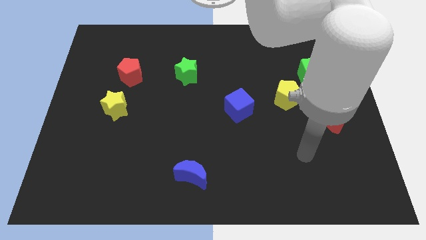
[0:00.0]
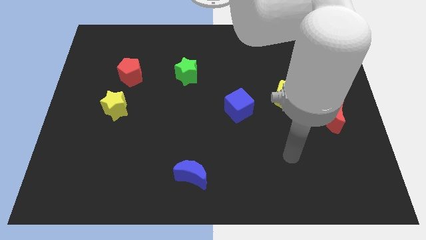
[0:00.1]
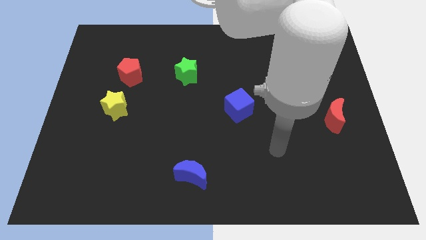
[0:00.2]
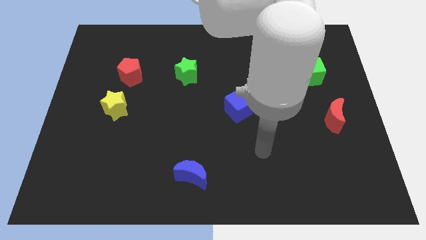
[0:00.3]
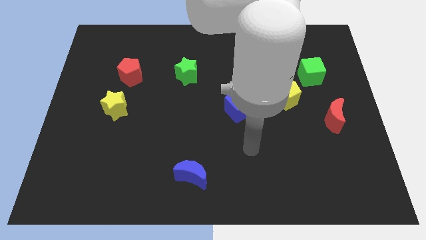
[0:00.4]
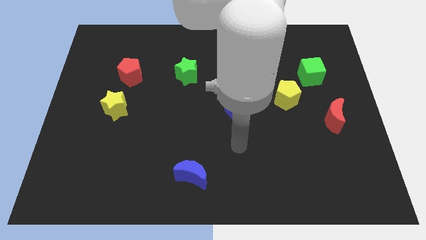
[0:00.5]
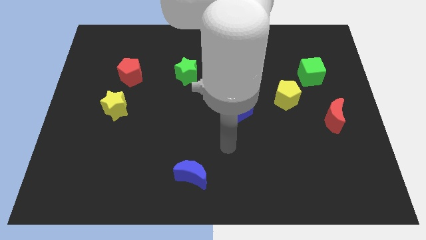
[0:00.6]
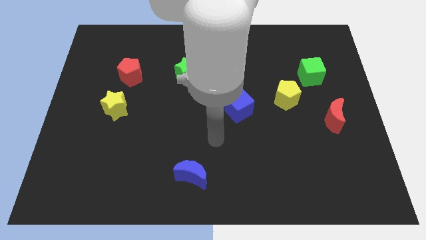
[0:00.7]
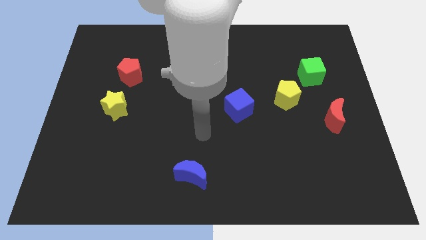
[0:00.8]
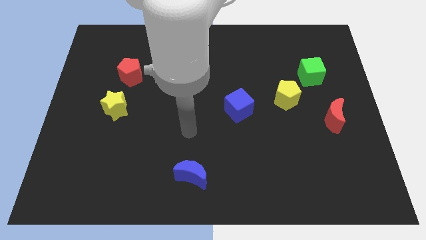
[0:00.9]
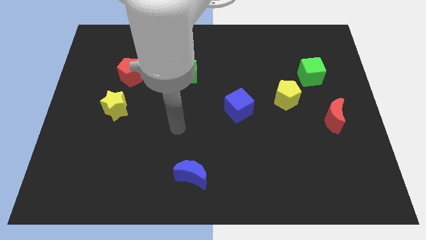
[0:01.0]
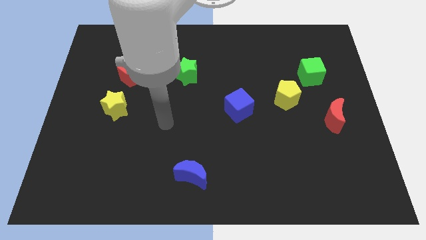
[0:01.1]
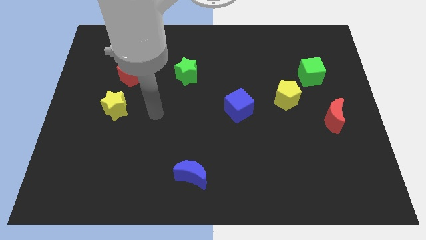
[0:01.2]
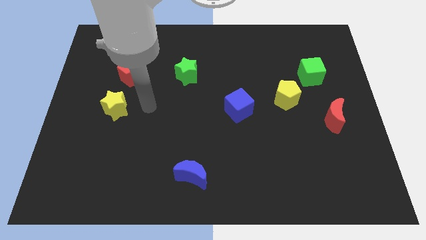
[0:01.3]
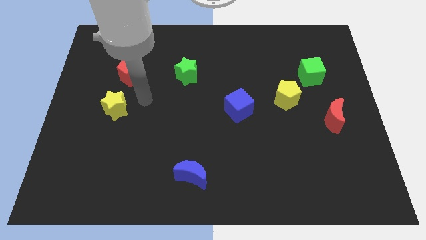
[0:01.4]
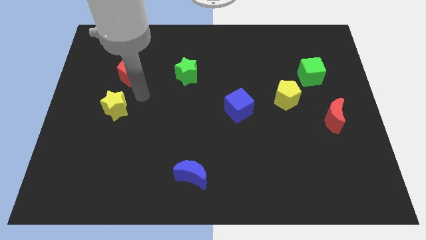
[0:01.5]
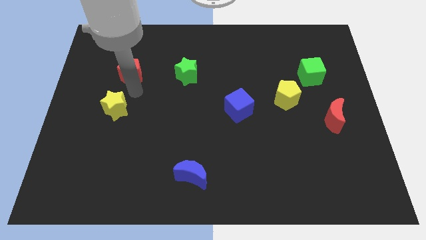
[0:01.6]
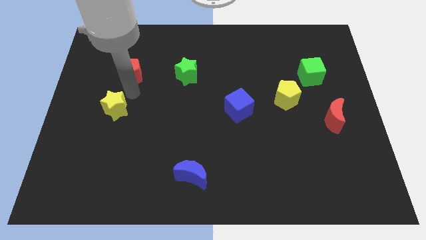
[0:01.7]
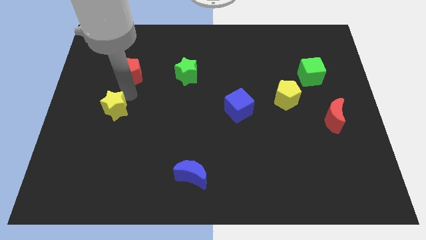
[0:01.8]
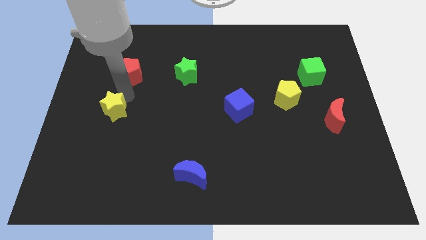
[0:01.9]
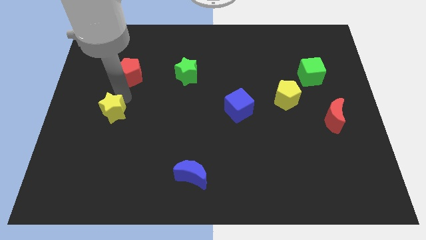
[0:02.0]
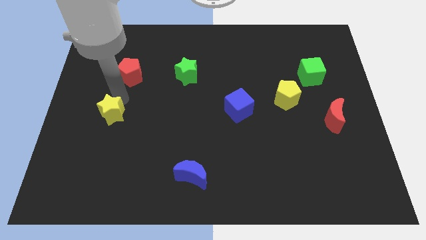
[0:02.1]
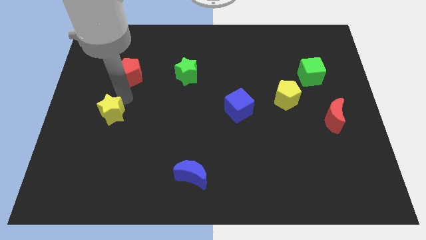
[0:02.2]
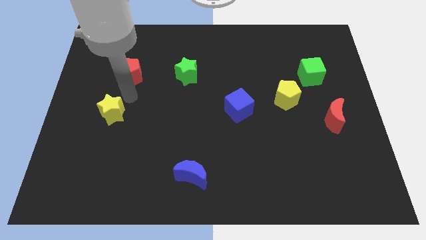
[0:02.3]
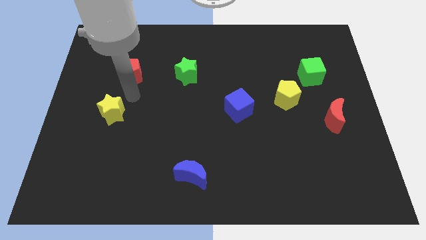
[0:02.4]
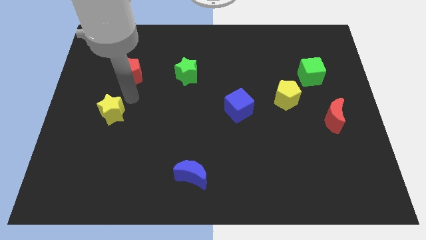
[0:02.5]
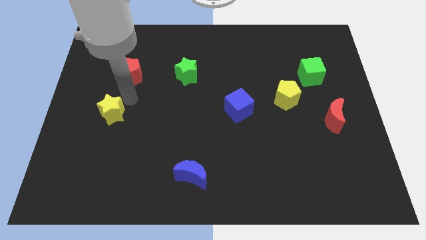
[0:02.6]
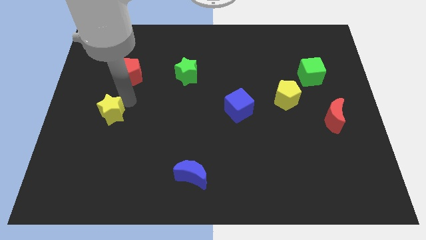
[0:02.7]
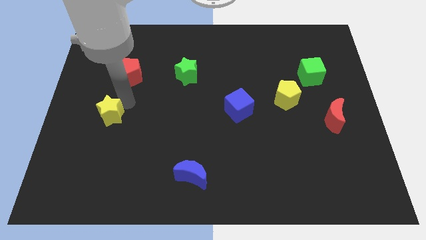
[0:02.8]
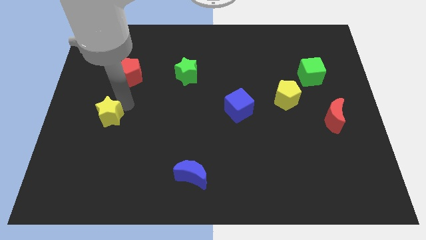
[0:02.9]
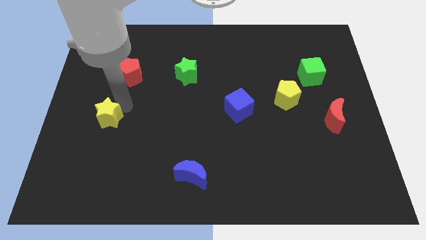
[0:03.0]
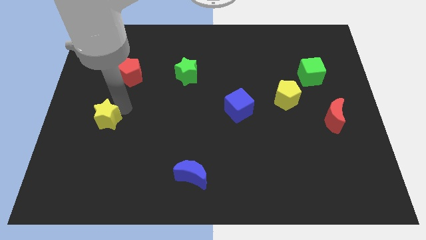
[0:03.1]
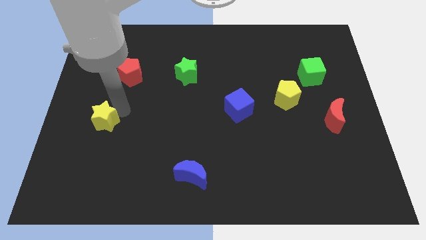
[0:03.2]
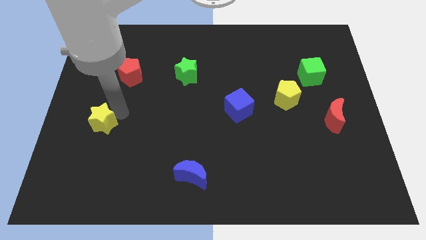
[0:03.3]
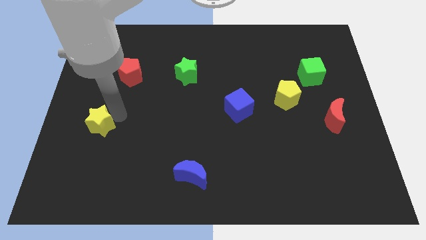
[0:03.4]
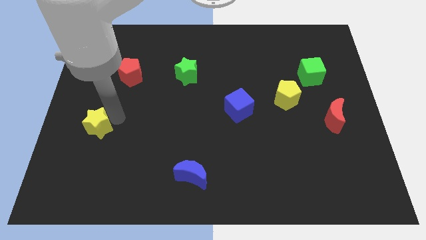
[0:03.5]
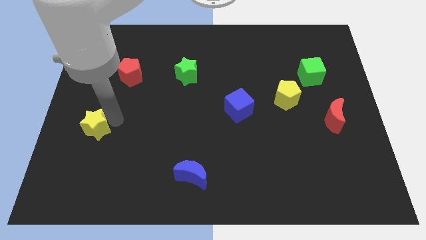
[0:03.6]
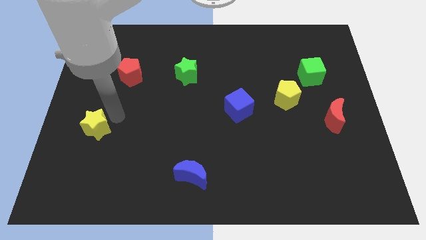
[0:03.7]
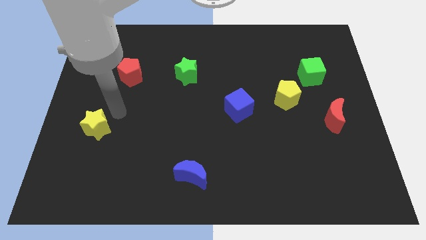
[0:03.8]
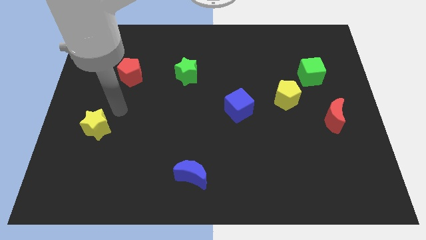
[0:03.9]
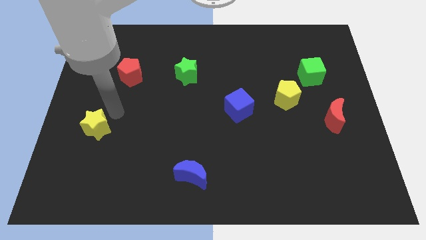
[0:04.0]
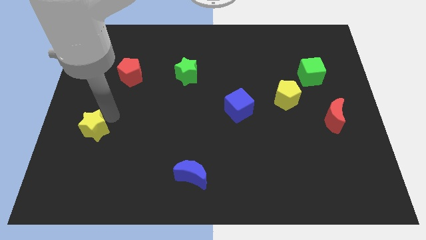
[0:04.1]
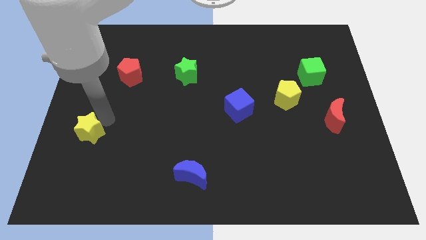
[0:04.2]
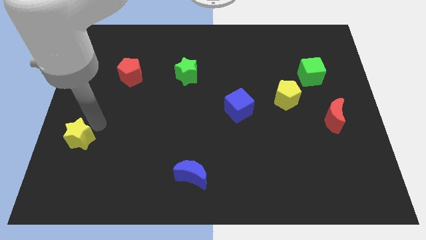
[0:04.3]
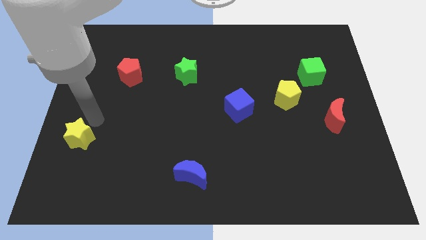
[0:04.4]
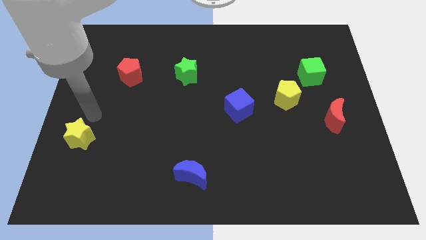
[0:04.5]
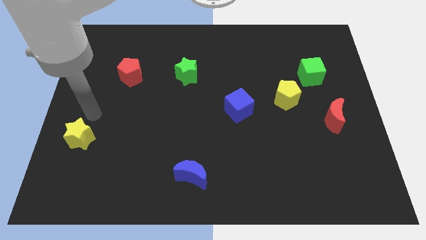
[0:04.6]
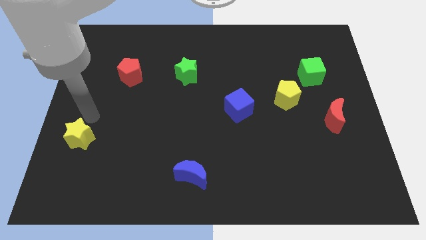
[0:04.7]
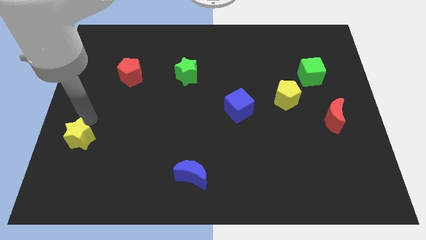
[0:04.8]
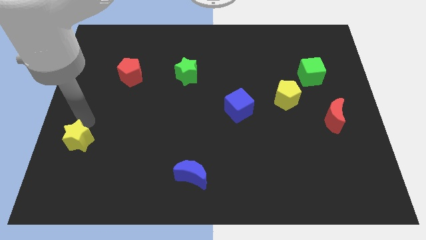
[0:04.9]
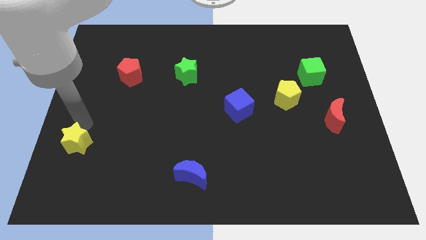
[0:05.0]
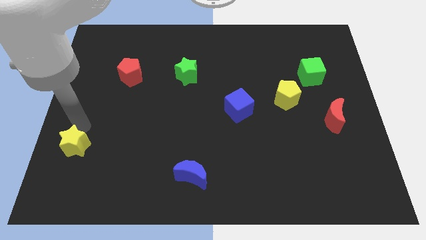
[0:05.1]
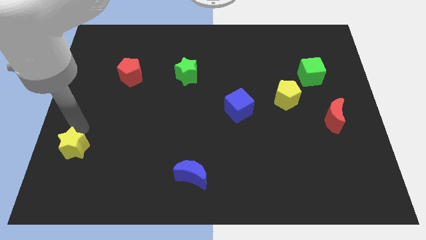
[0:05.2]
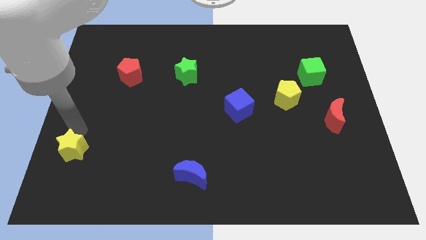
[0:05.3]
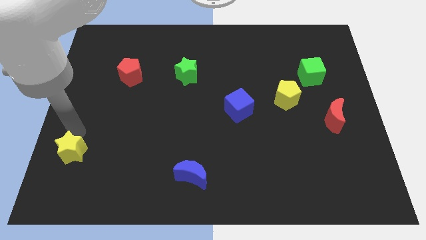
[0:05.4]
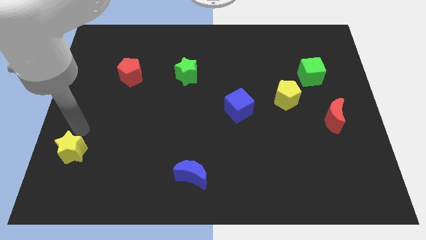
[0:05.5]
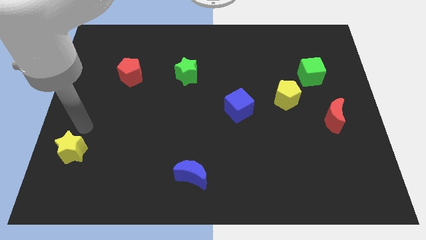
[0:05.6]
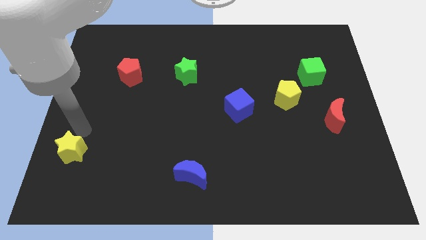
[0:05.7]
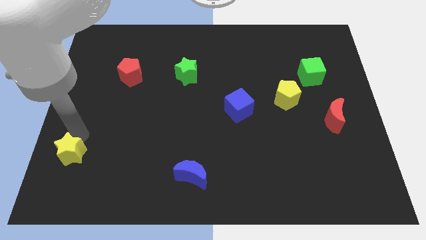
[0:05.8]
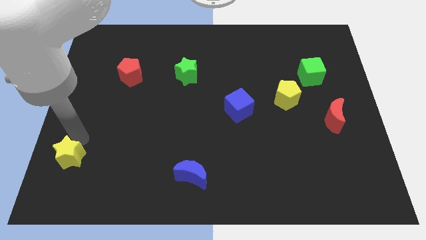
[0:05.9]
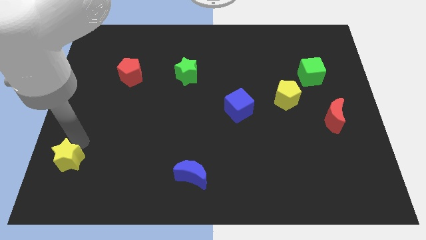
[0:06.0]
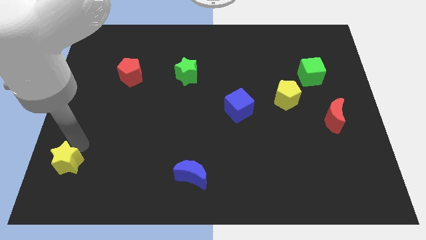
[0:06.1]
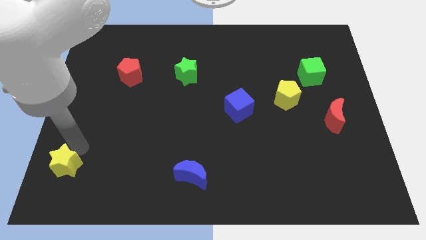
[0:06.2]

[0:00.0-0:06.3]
push the yellow star to the bottom left corner

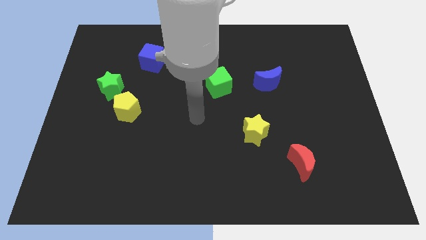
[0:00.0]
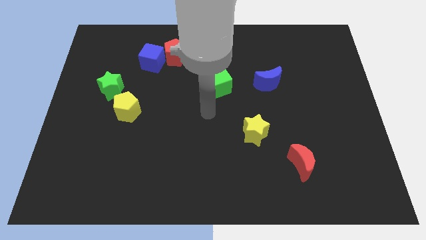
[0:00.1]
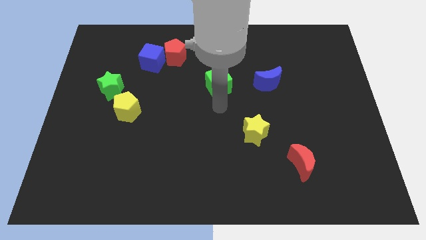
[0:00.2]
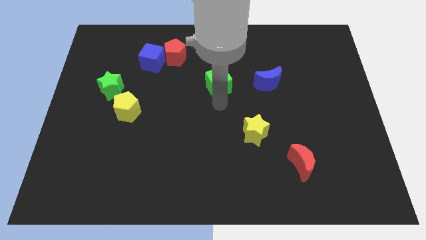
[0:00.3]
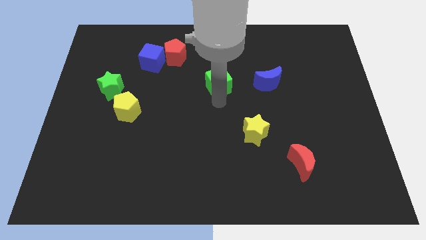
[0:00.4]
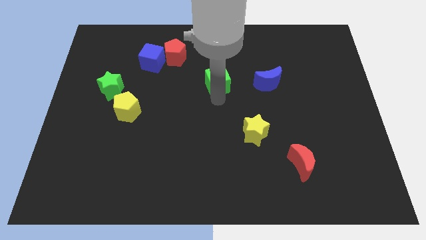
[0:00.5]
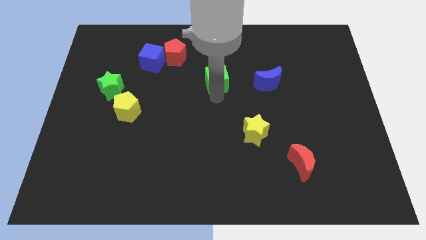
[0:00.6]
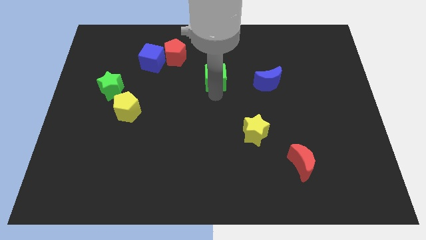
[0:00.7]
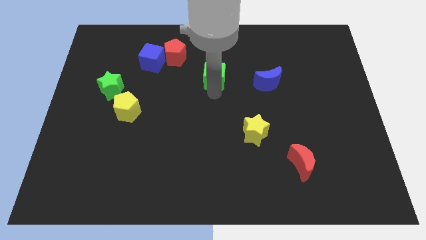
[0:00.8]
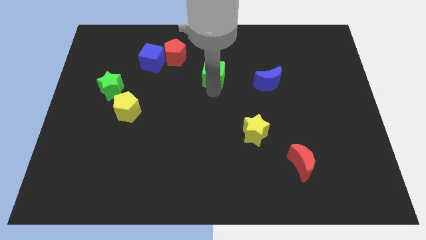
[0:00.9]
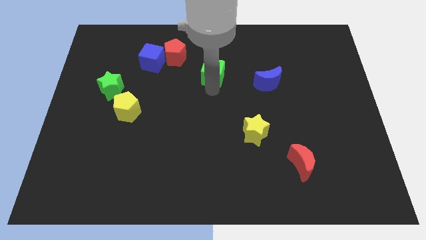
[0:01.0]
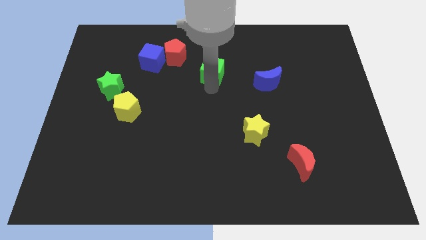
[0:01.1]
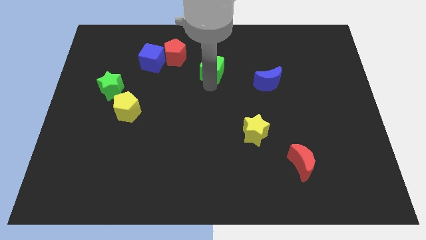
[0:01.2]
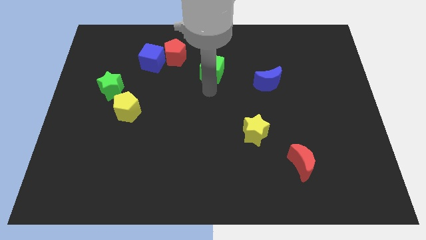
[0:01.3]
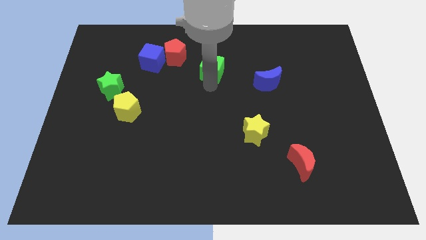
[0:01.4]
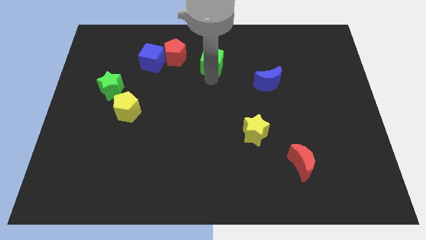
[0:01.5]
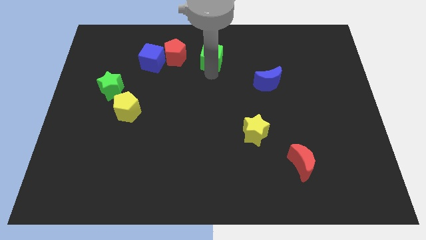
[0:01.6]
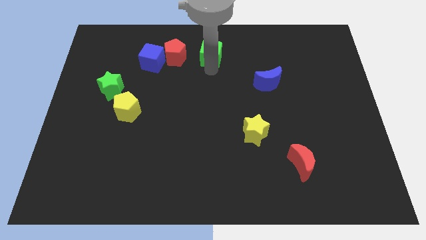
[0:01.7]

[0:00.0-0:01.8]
slide the green cube to the top

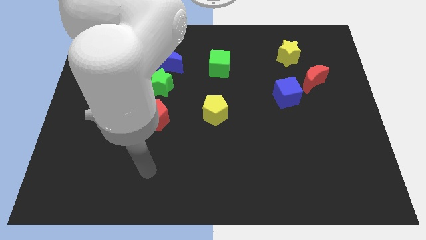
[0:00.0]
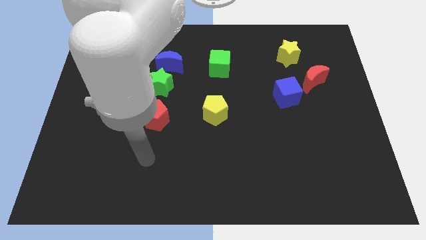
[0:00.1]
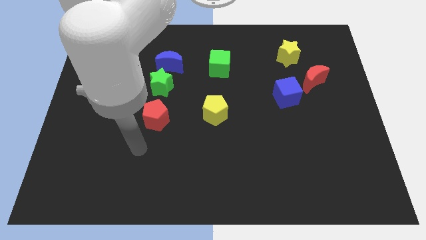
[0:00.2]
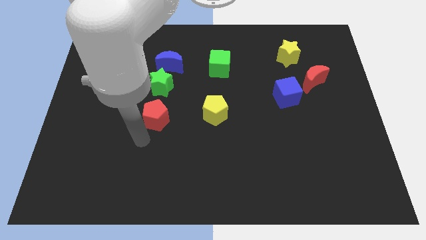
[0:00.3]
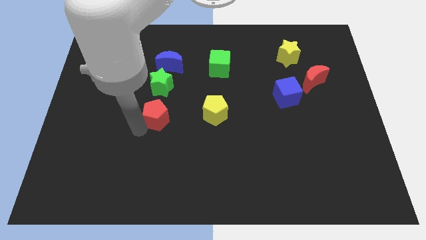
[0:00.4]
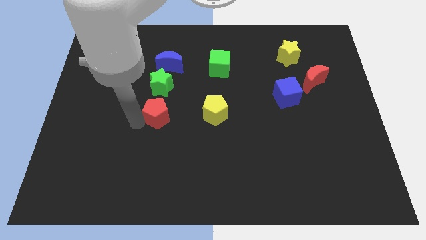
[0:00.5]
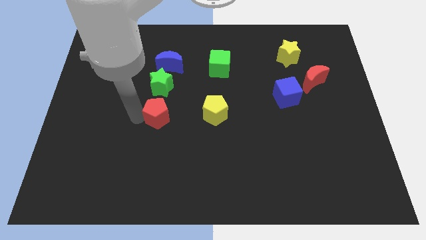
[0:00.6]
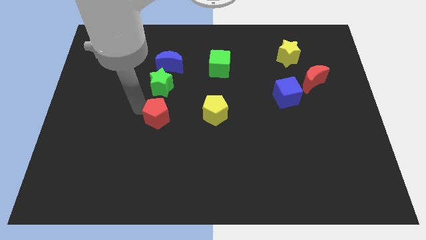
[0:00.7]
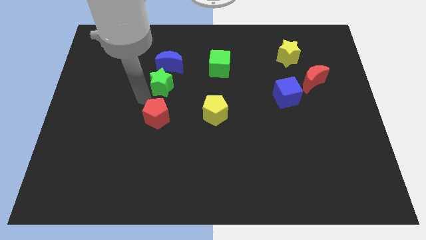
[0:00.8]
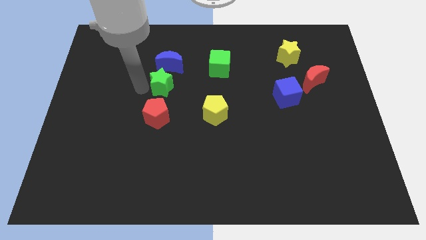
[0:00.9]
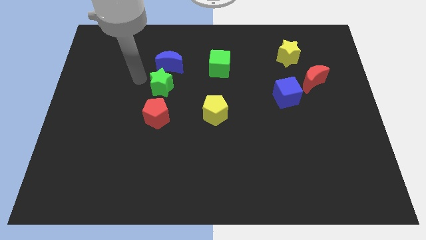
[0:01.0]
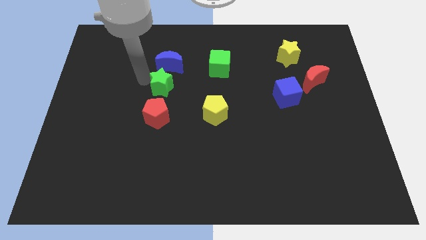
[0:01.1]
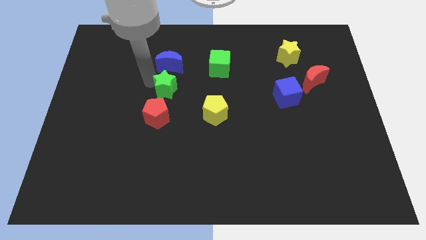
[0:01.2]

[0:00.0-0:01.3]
push the green star to the middle
